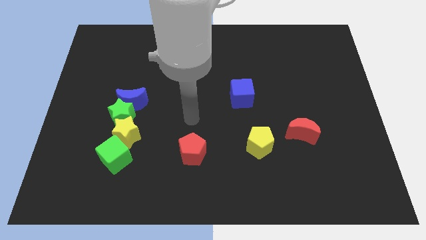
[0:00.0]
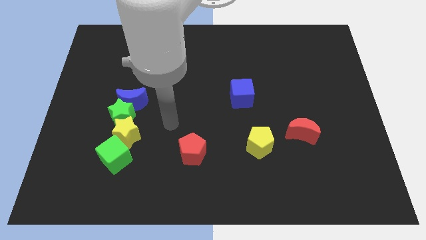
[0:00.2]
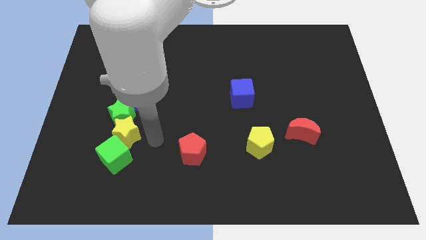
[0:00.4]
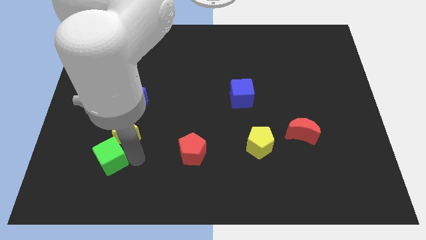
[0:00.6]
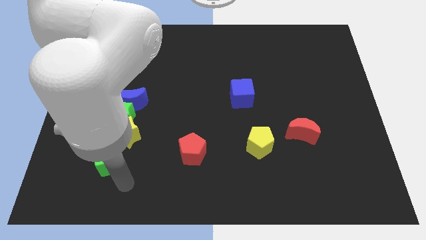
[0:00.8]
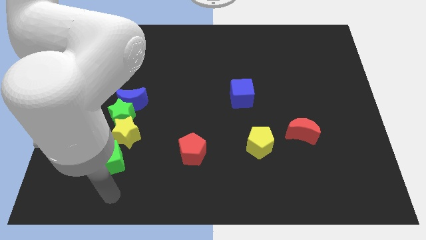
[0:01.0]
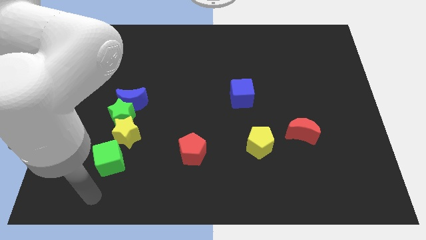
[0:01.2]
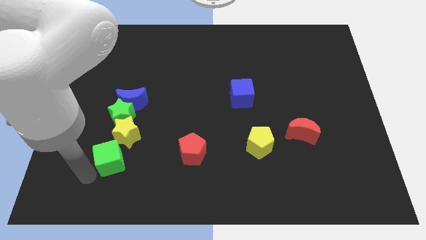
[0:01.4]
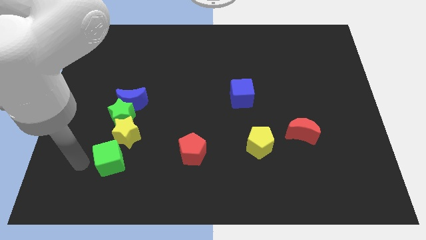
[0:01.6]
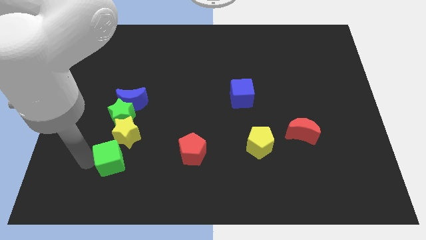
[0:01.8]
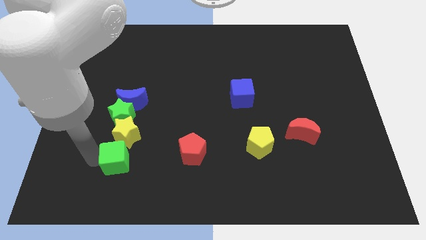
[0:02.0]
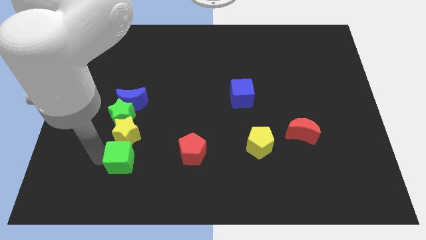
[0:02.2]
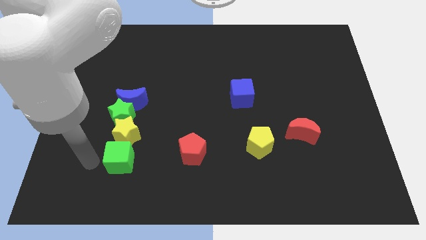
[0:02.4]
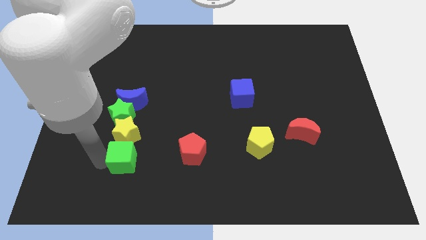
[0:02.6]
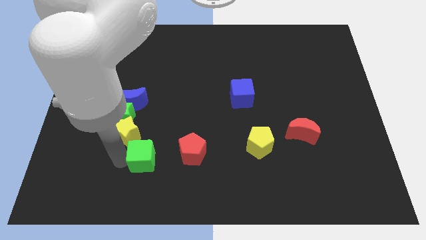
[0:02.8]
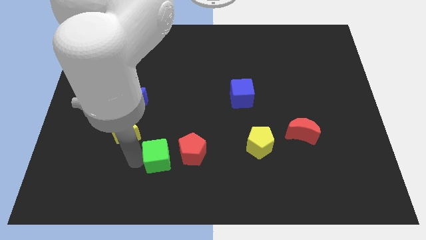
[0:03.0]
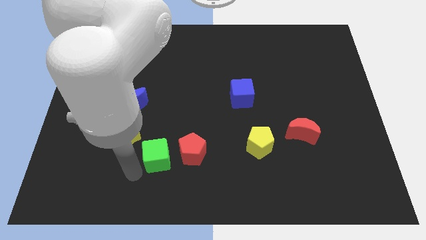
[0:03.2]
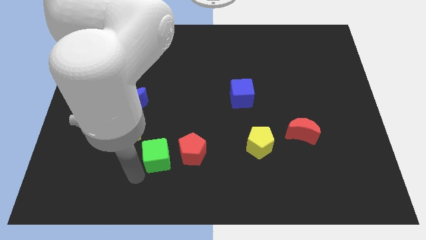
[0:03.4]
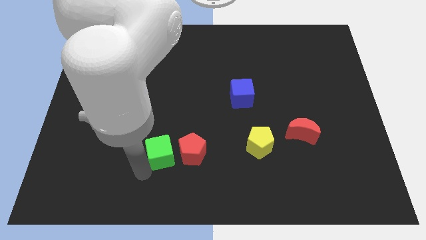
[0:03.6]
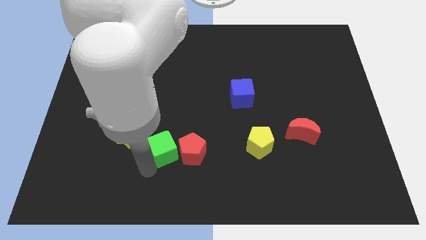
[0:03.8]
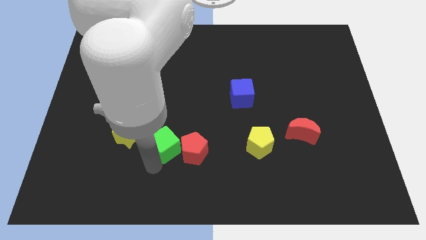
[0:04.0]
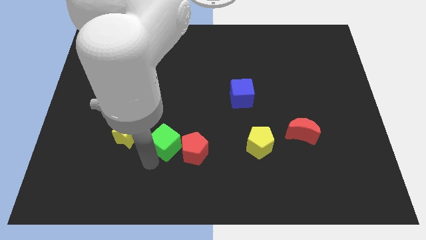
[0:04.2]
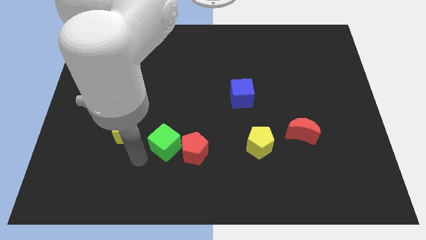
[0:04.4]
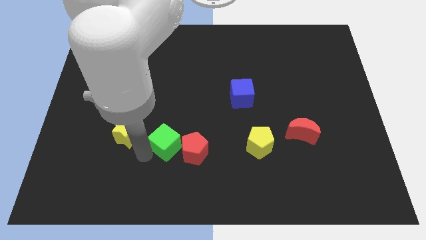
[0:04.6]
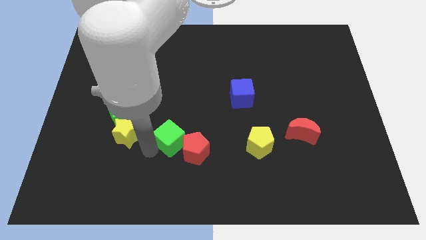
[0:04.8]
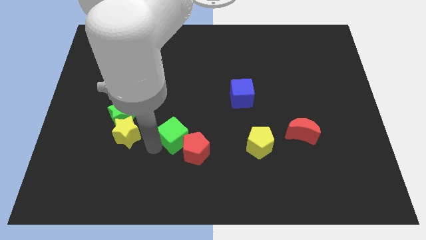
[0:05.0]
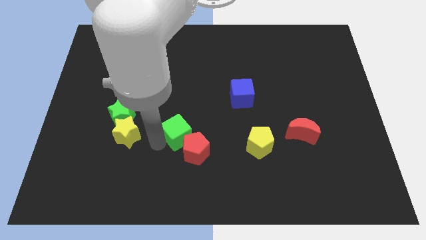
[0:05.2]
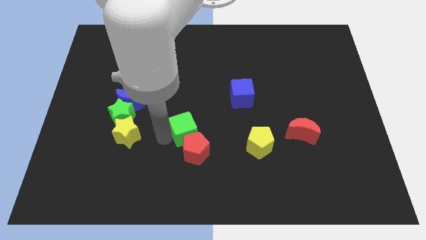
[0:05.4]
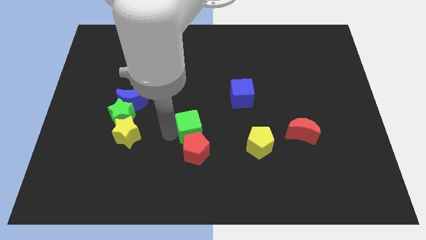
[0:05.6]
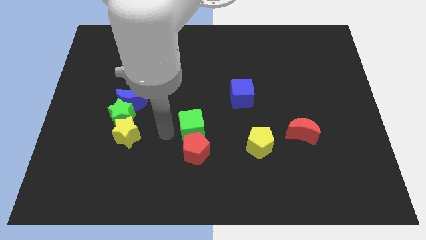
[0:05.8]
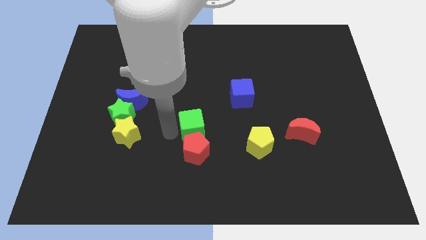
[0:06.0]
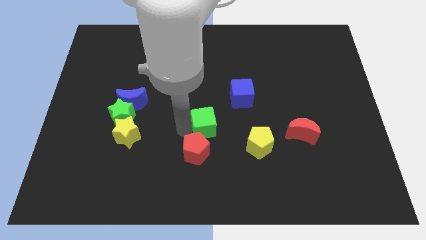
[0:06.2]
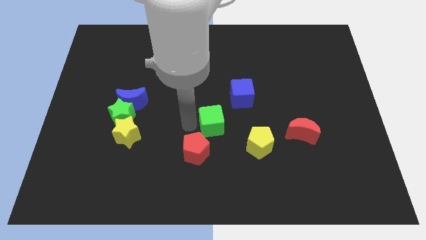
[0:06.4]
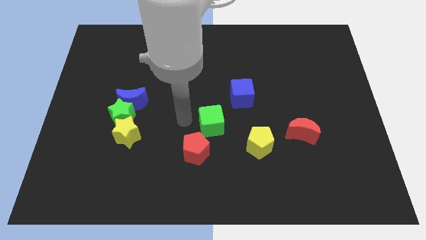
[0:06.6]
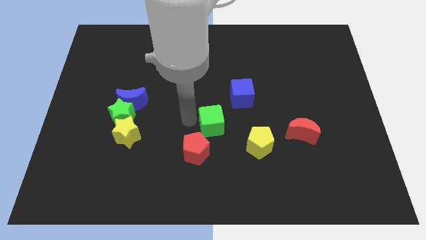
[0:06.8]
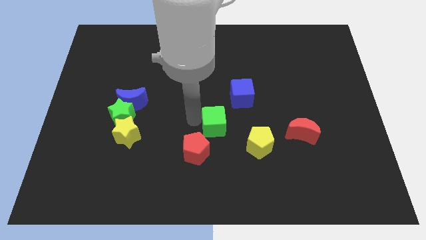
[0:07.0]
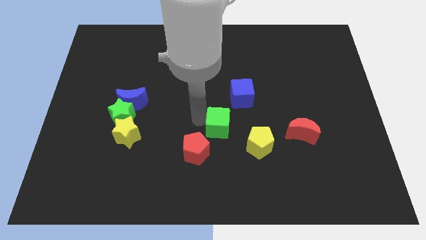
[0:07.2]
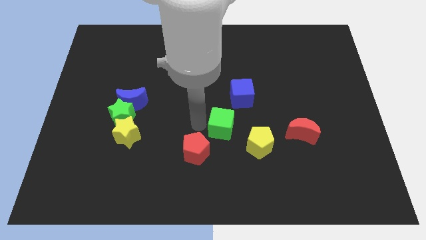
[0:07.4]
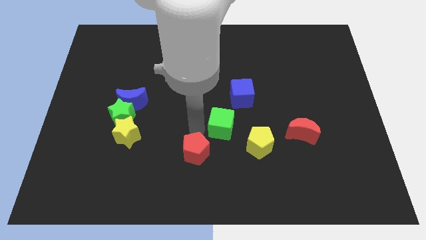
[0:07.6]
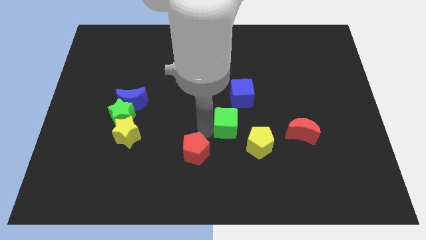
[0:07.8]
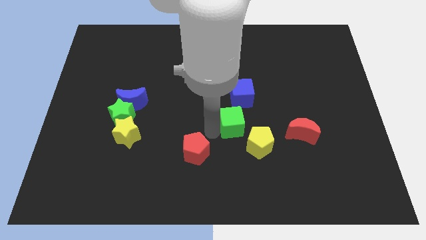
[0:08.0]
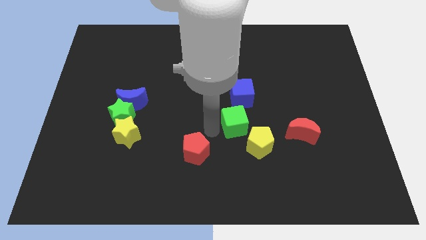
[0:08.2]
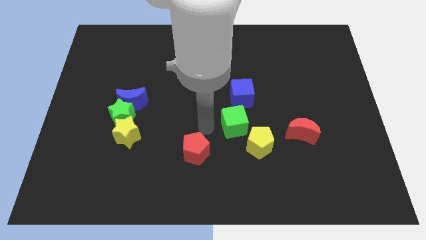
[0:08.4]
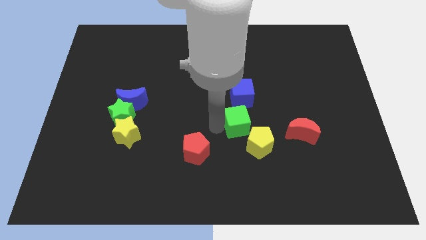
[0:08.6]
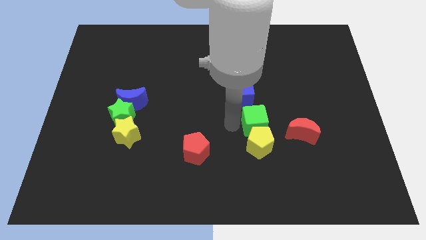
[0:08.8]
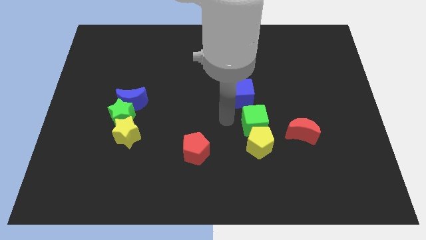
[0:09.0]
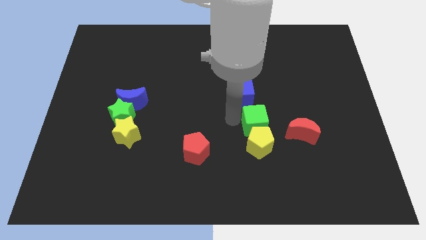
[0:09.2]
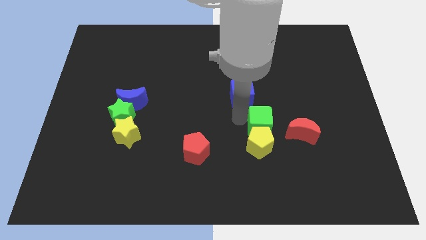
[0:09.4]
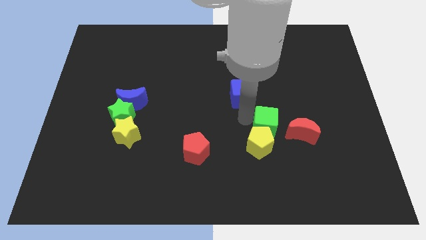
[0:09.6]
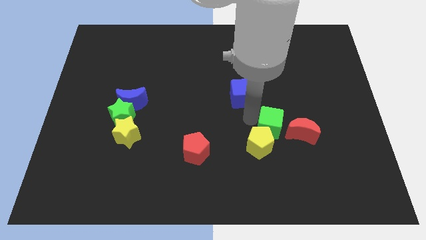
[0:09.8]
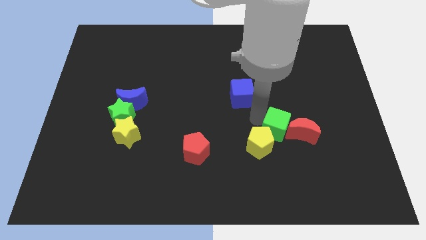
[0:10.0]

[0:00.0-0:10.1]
slide the green cube to the red moon

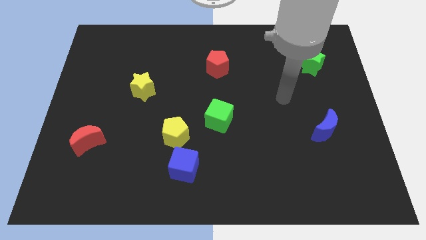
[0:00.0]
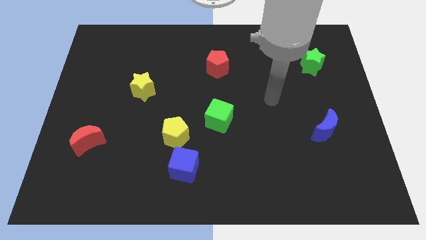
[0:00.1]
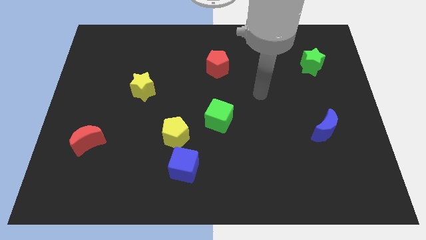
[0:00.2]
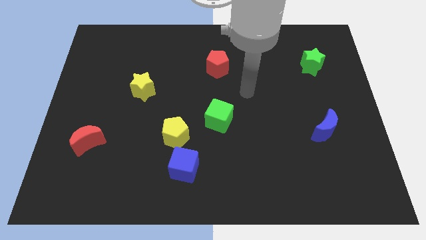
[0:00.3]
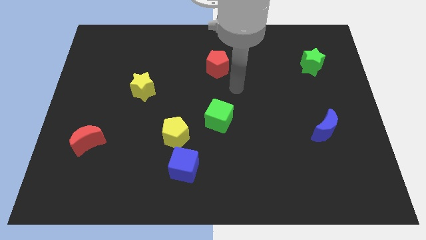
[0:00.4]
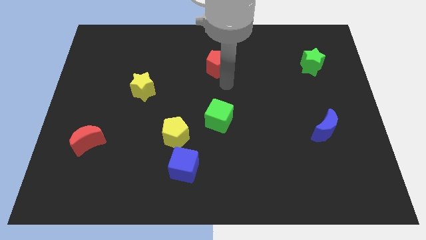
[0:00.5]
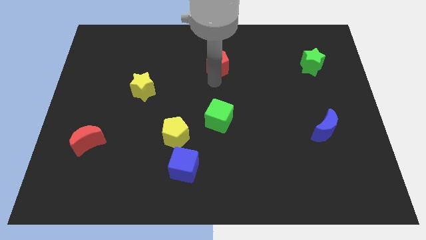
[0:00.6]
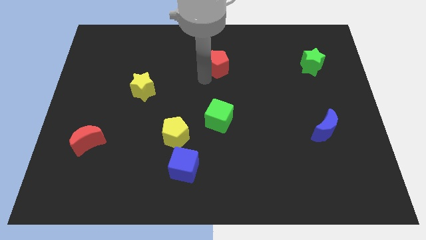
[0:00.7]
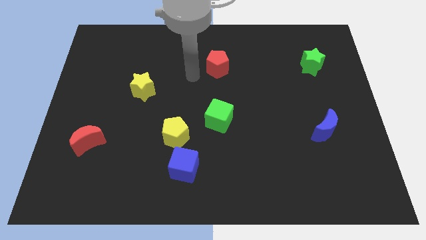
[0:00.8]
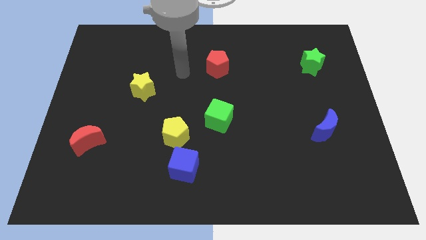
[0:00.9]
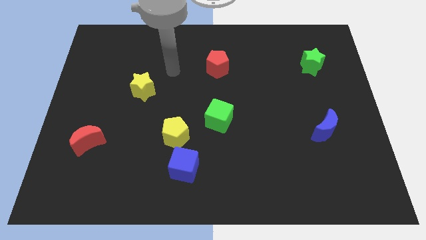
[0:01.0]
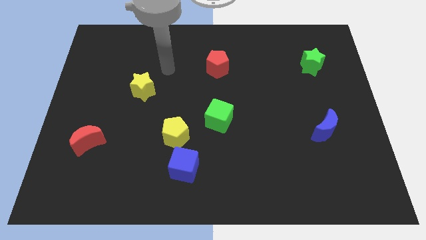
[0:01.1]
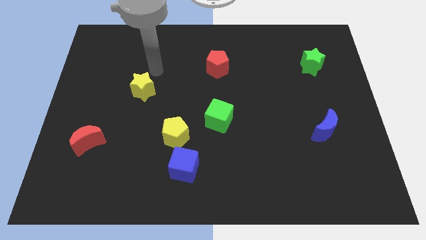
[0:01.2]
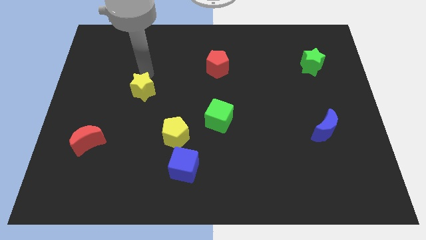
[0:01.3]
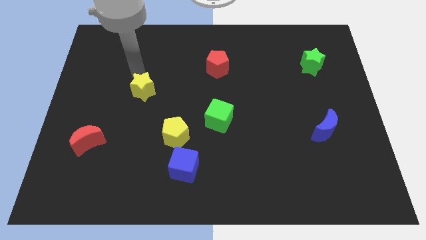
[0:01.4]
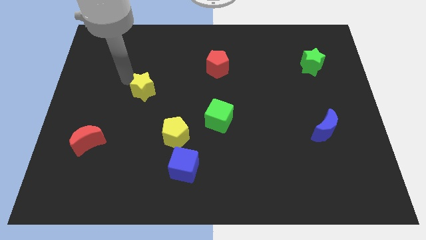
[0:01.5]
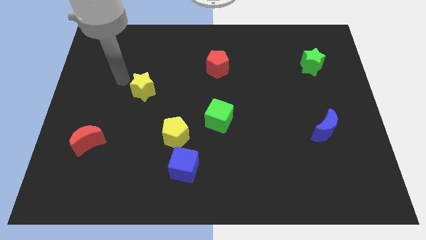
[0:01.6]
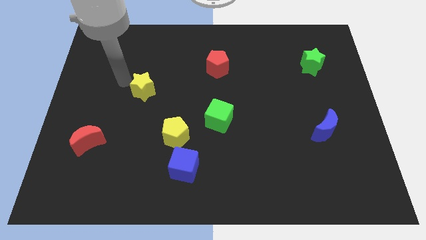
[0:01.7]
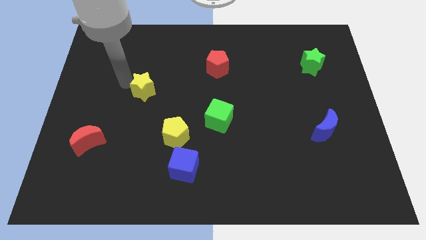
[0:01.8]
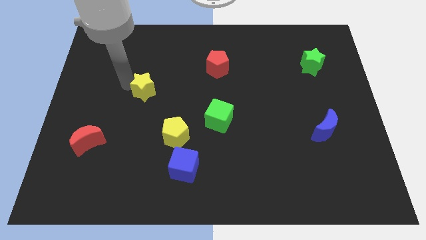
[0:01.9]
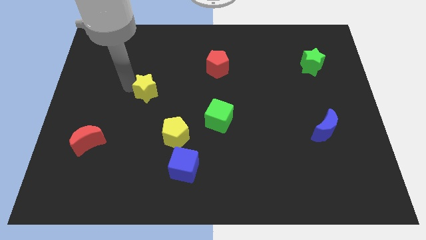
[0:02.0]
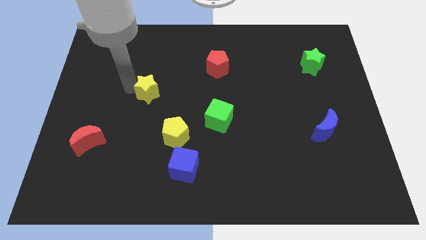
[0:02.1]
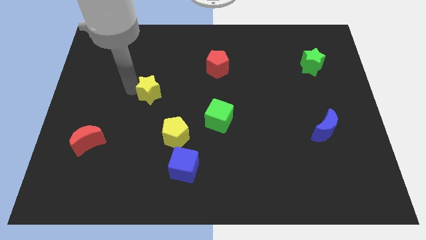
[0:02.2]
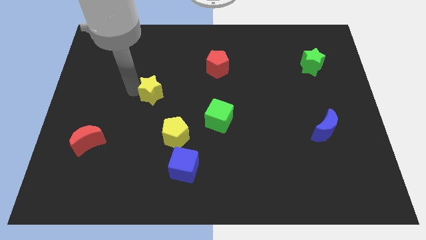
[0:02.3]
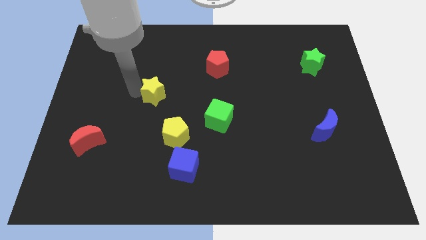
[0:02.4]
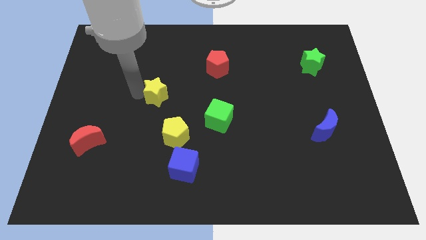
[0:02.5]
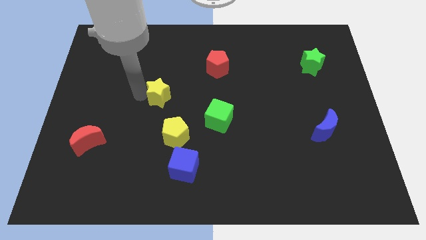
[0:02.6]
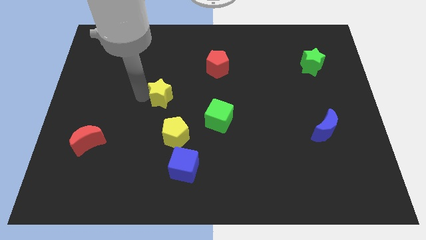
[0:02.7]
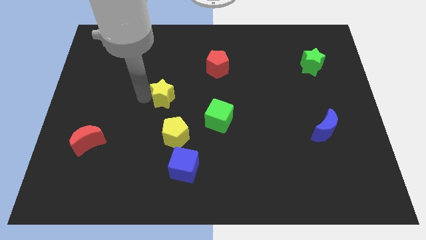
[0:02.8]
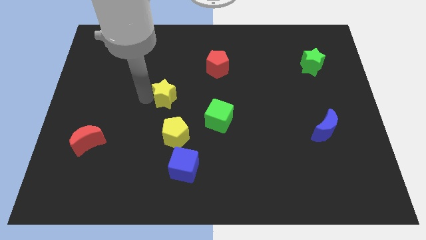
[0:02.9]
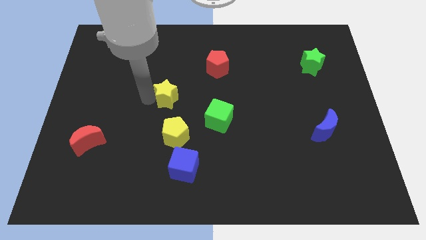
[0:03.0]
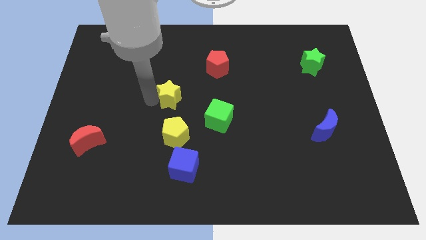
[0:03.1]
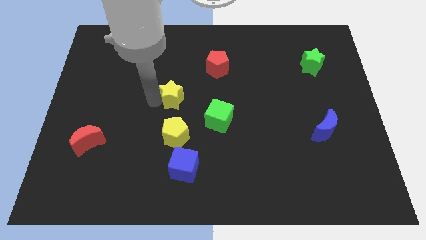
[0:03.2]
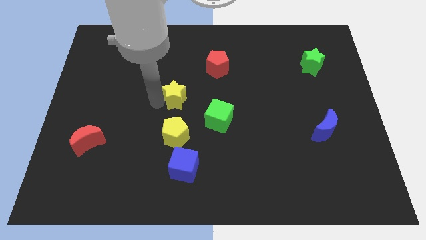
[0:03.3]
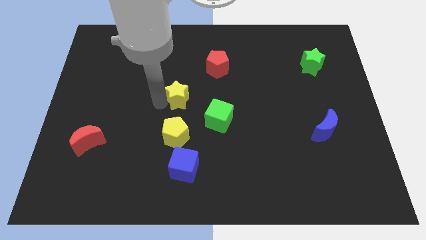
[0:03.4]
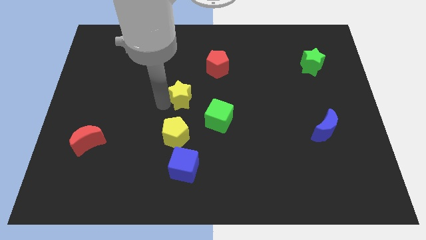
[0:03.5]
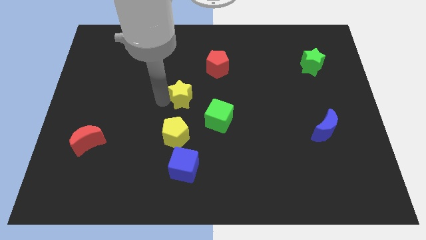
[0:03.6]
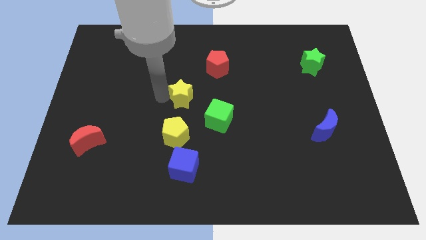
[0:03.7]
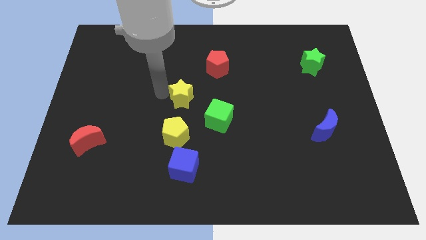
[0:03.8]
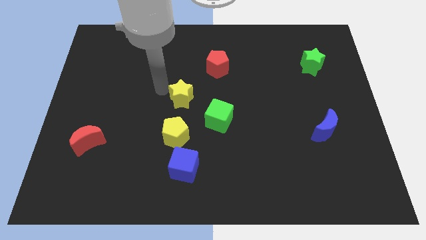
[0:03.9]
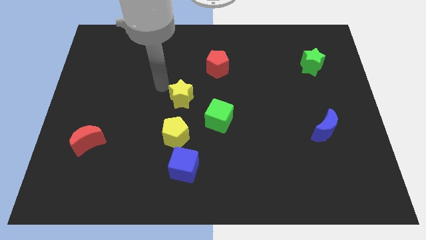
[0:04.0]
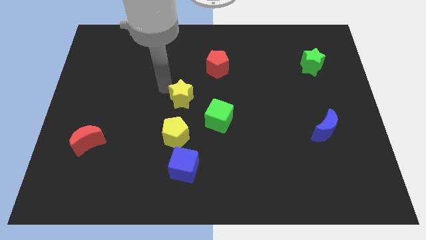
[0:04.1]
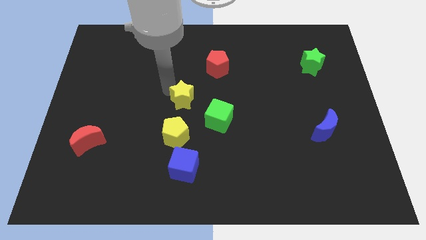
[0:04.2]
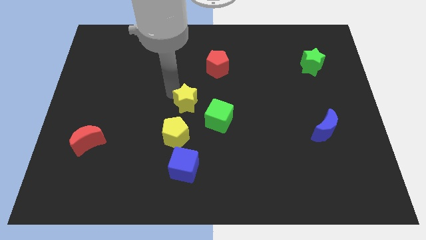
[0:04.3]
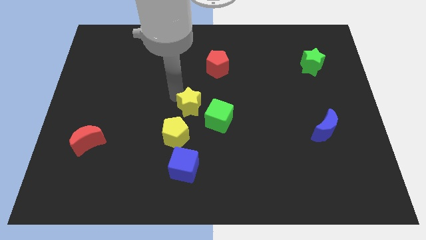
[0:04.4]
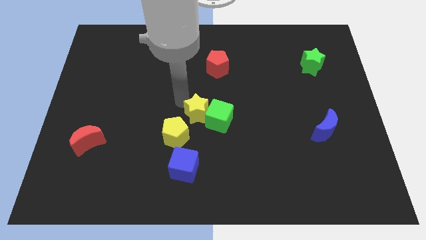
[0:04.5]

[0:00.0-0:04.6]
move the yellow star to the green cube
